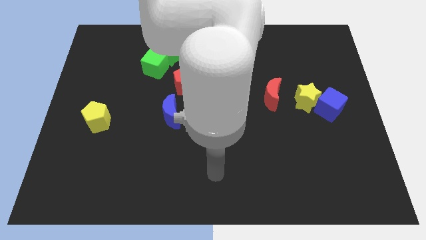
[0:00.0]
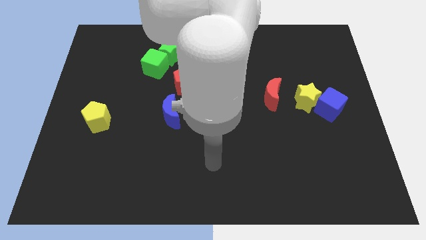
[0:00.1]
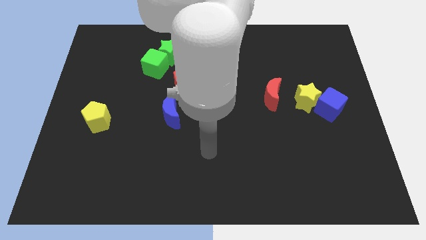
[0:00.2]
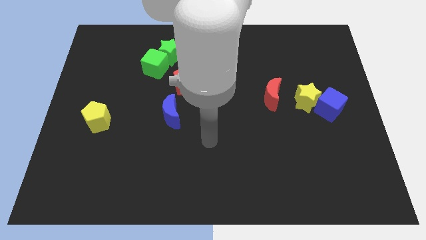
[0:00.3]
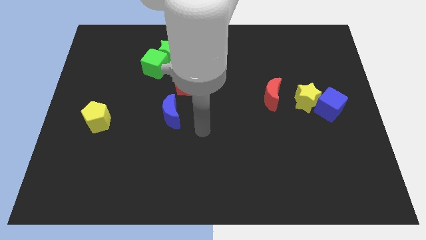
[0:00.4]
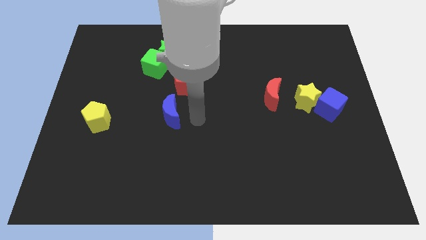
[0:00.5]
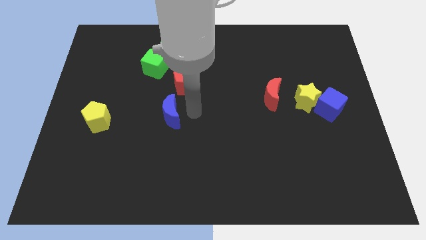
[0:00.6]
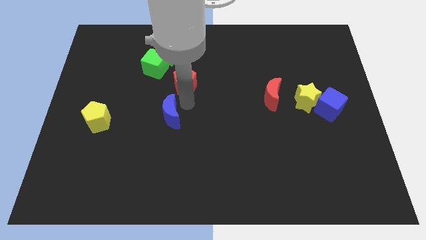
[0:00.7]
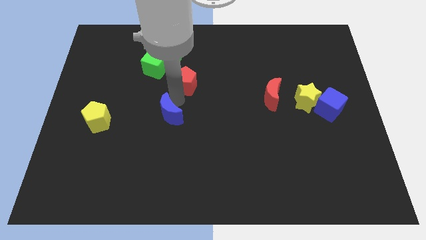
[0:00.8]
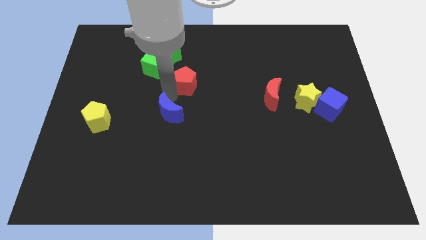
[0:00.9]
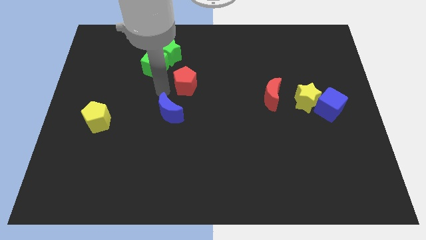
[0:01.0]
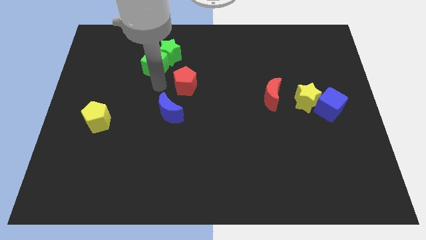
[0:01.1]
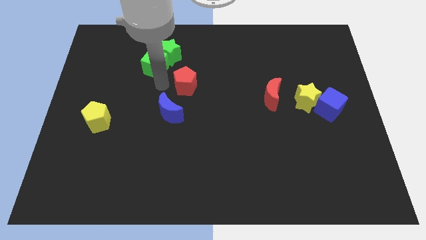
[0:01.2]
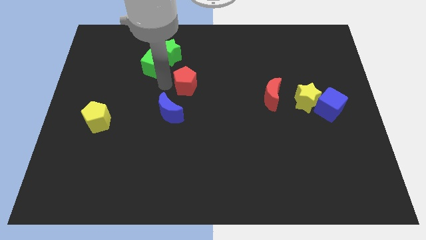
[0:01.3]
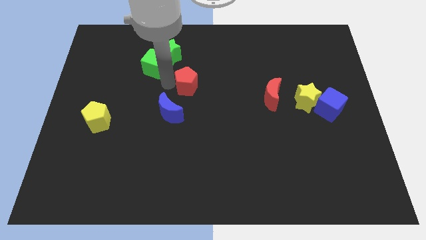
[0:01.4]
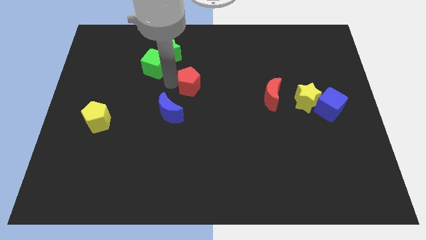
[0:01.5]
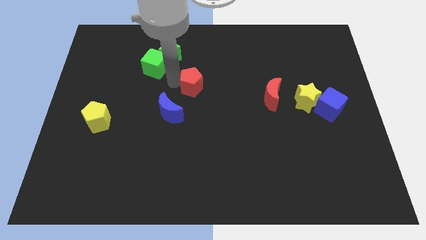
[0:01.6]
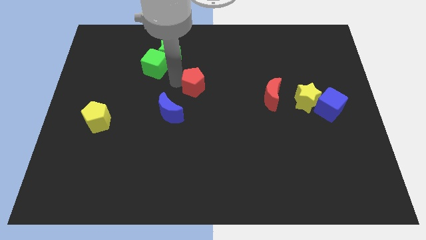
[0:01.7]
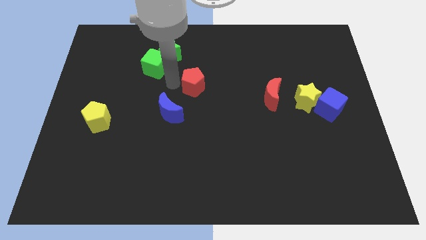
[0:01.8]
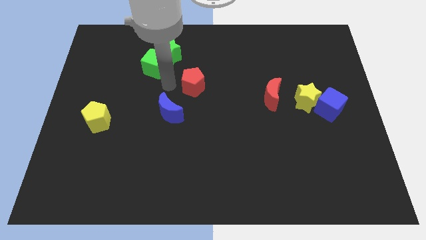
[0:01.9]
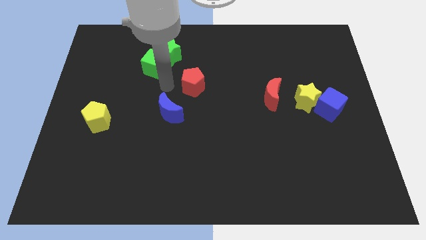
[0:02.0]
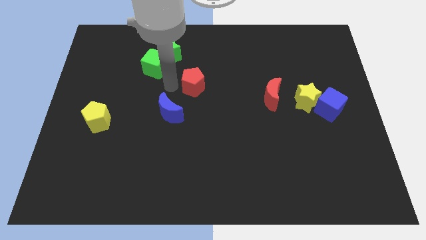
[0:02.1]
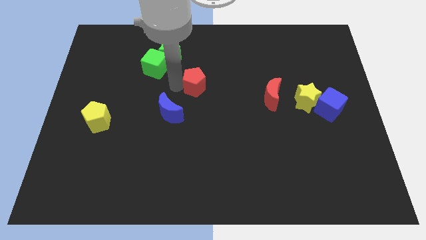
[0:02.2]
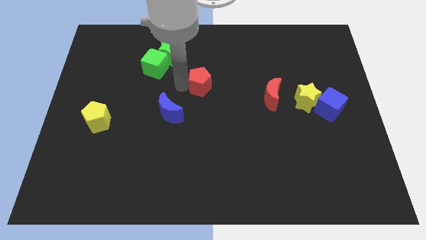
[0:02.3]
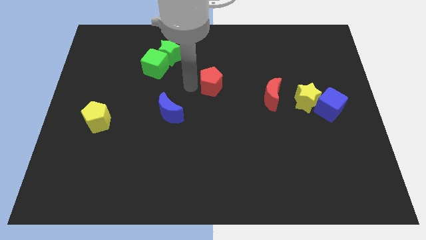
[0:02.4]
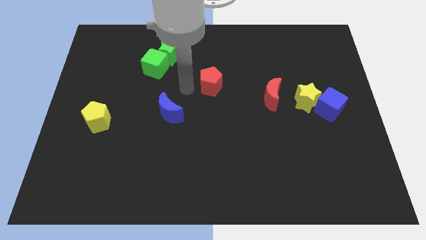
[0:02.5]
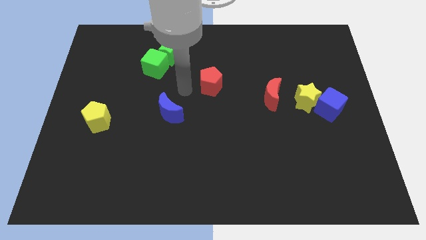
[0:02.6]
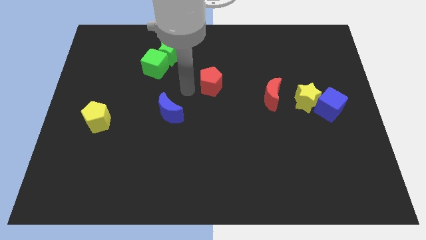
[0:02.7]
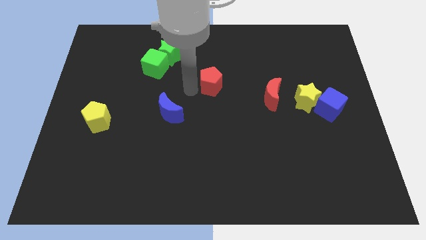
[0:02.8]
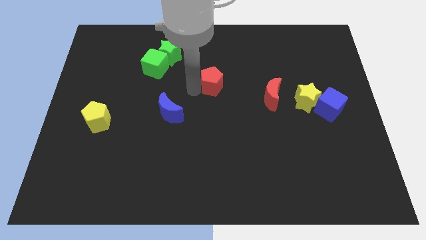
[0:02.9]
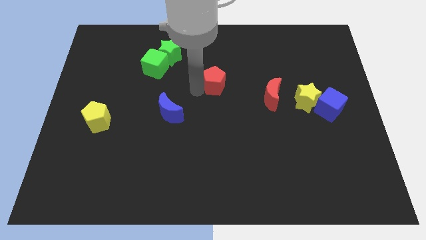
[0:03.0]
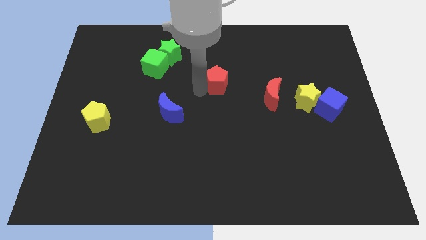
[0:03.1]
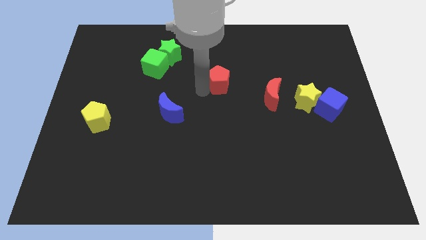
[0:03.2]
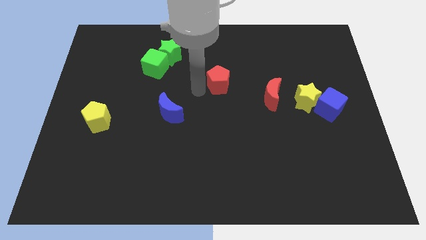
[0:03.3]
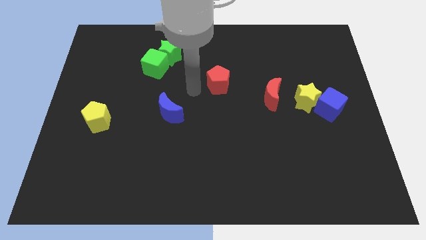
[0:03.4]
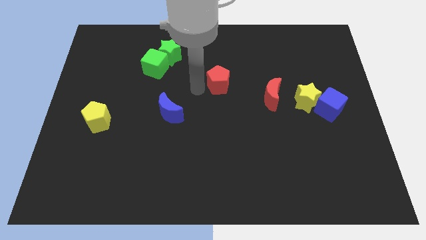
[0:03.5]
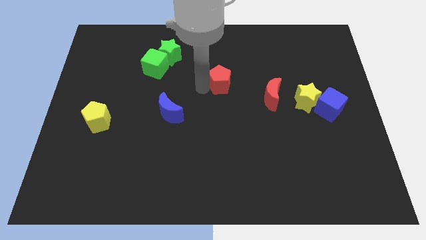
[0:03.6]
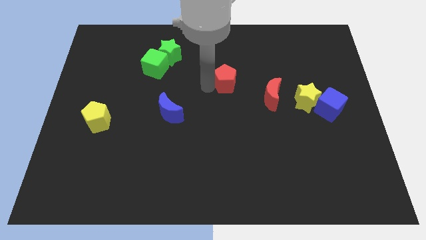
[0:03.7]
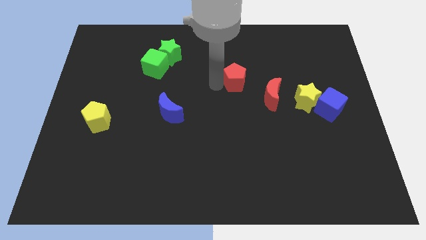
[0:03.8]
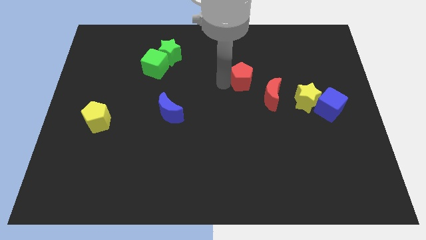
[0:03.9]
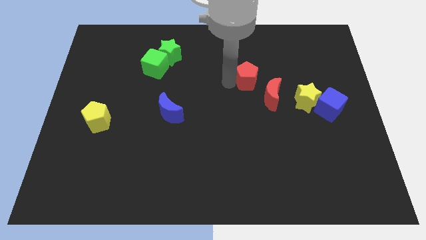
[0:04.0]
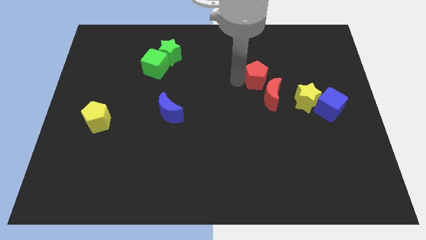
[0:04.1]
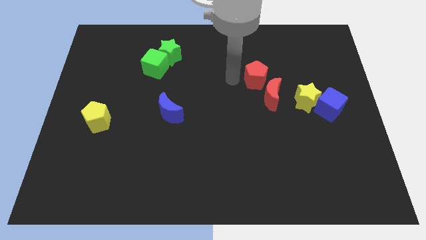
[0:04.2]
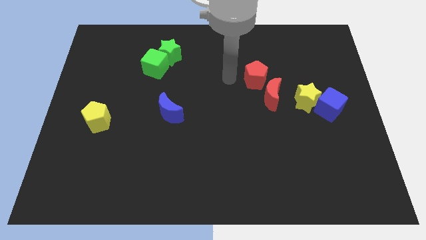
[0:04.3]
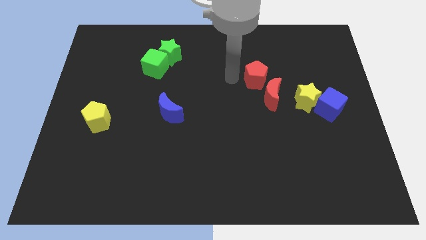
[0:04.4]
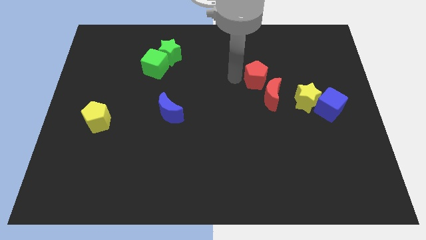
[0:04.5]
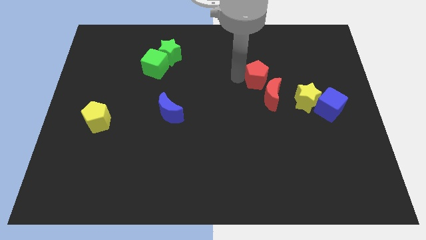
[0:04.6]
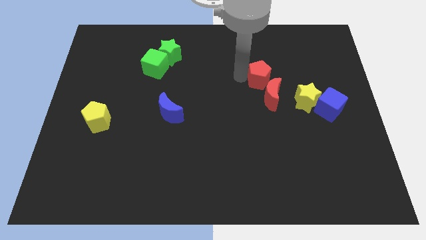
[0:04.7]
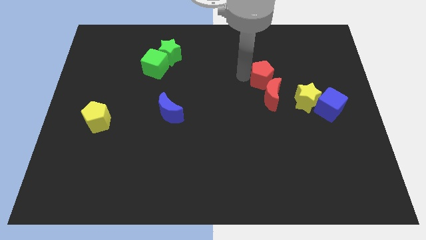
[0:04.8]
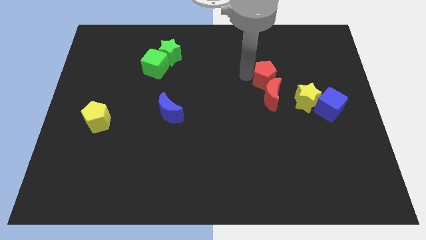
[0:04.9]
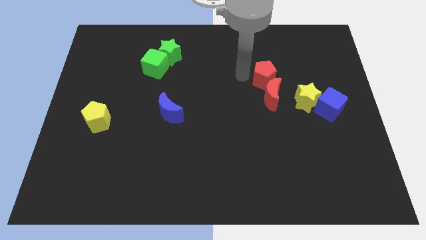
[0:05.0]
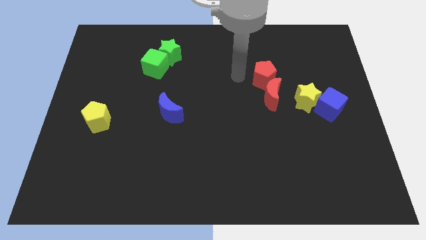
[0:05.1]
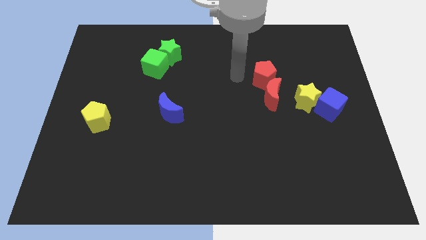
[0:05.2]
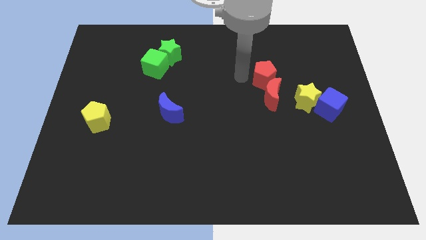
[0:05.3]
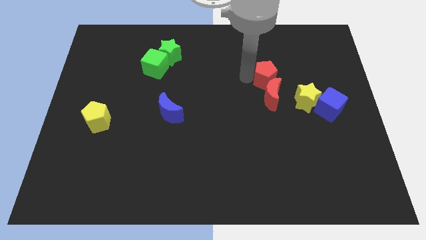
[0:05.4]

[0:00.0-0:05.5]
slide the red pentagon right

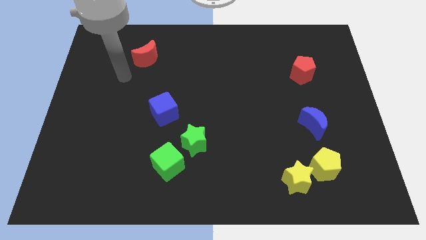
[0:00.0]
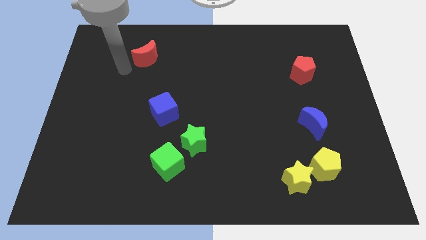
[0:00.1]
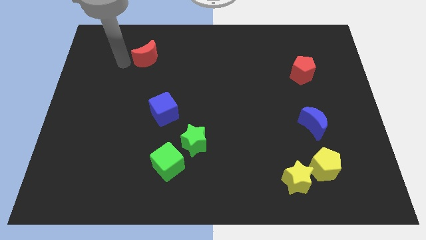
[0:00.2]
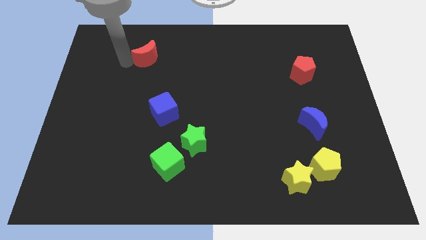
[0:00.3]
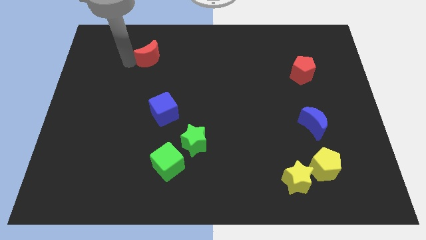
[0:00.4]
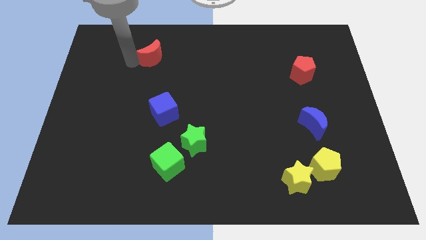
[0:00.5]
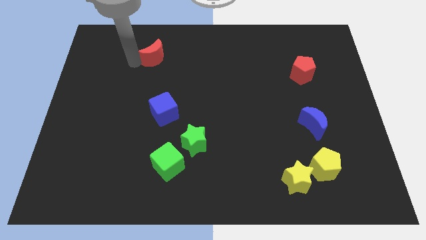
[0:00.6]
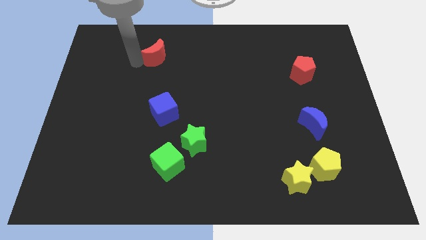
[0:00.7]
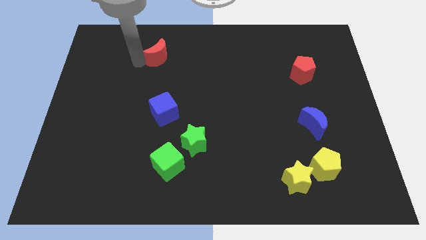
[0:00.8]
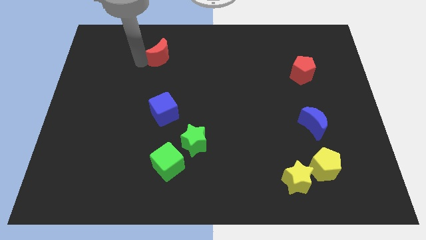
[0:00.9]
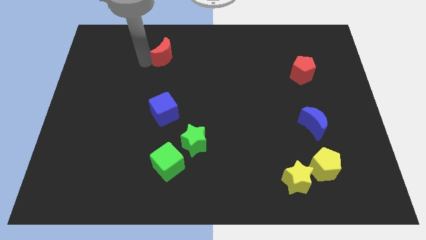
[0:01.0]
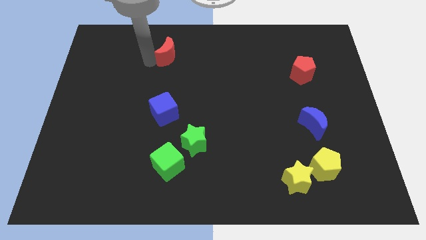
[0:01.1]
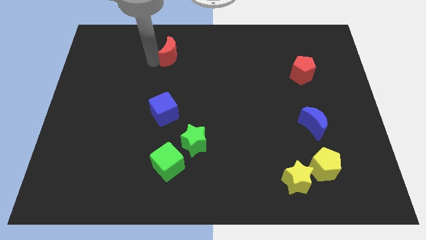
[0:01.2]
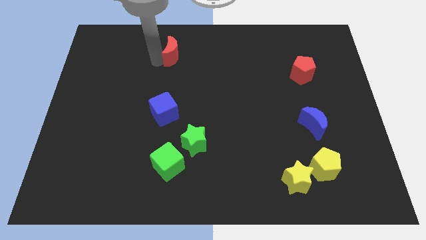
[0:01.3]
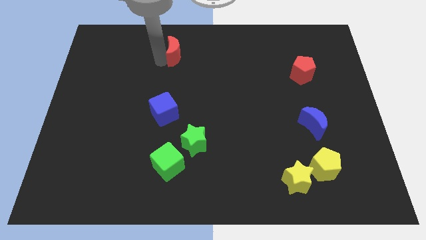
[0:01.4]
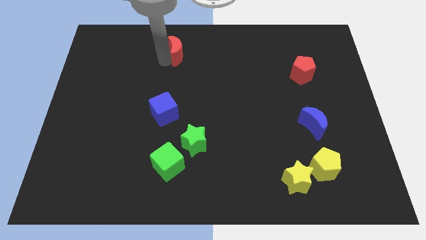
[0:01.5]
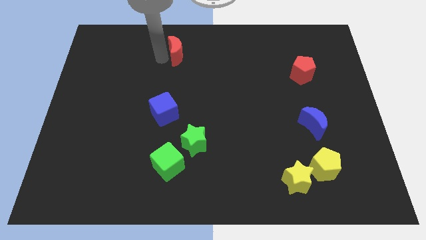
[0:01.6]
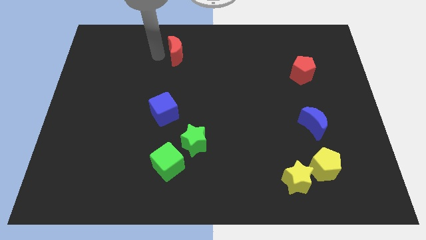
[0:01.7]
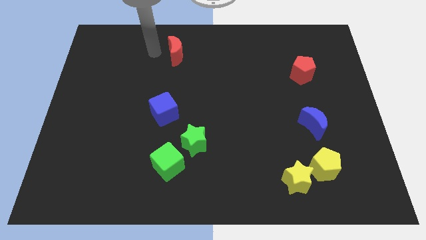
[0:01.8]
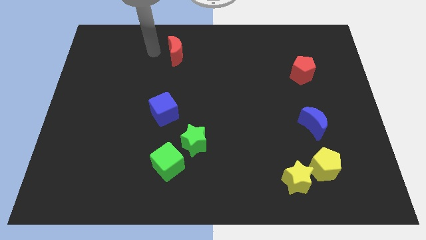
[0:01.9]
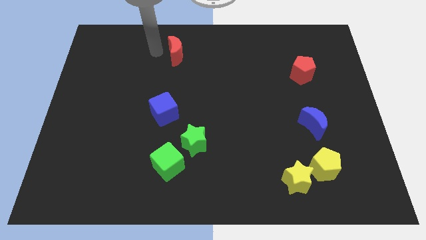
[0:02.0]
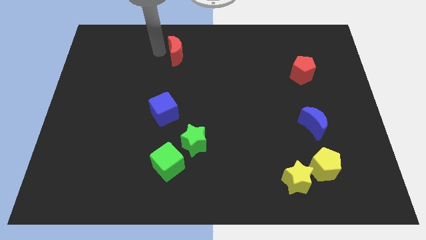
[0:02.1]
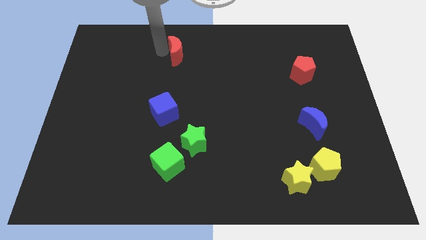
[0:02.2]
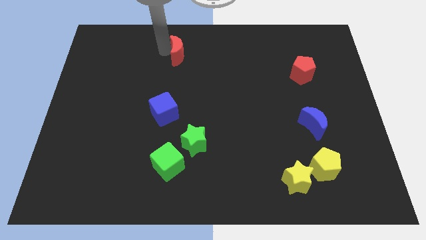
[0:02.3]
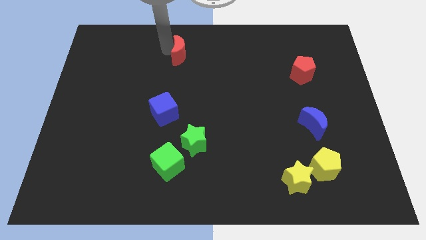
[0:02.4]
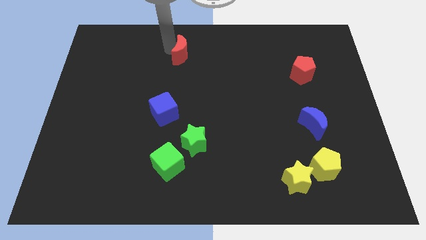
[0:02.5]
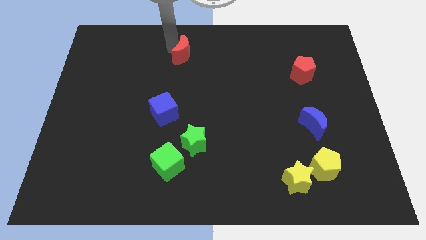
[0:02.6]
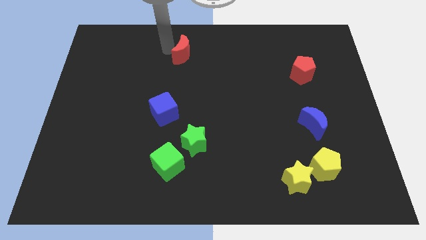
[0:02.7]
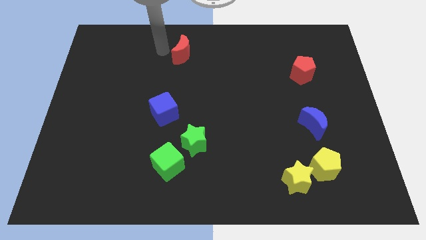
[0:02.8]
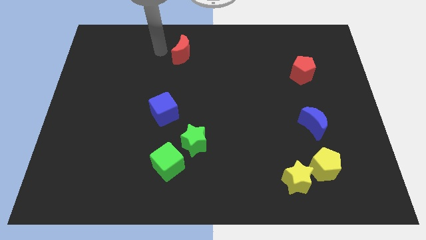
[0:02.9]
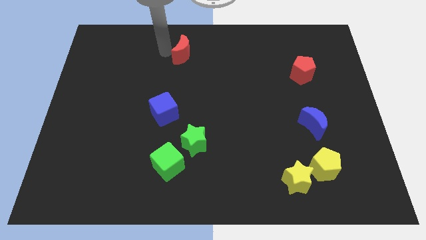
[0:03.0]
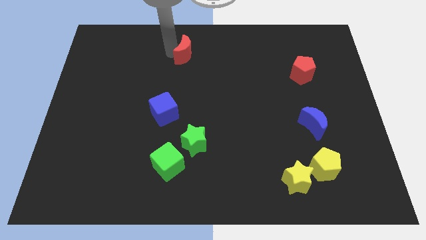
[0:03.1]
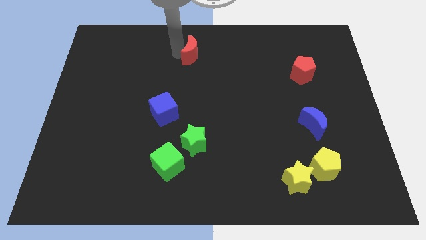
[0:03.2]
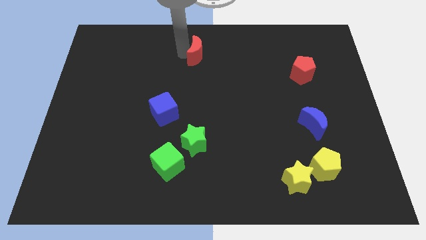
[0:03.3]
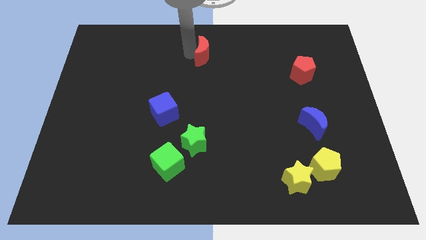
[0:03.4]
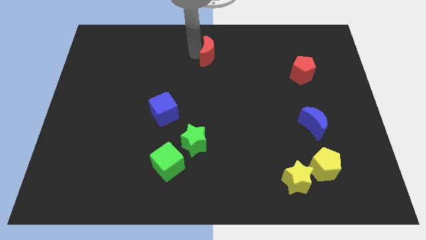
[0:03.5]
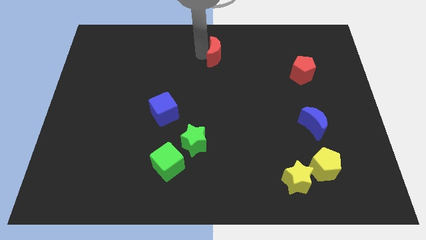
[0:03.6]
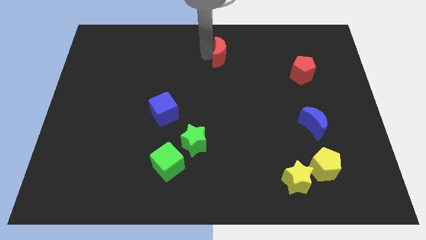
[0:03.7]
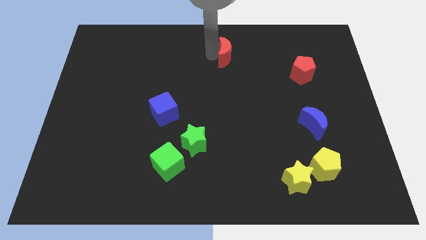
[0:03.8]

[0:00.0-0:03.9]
slide the red moon right
